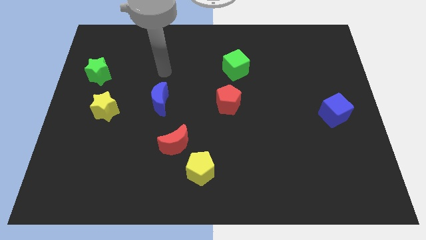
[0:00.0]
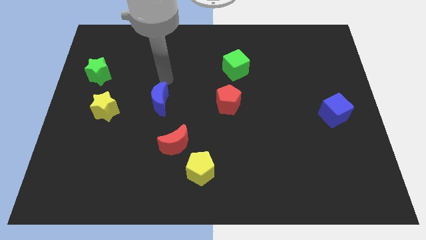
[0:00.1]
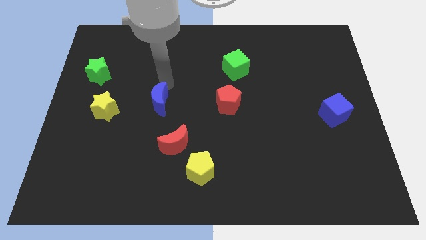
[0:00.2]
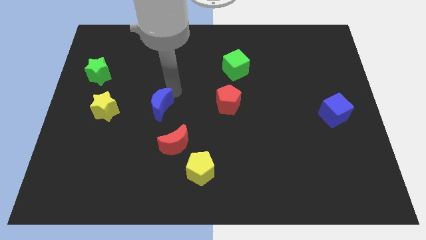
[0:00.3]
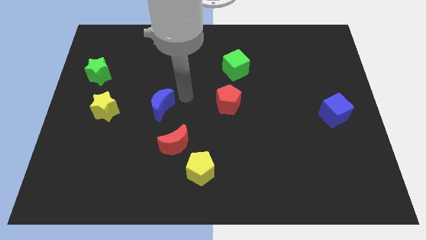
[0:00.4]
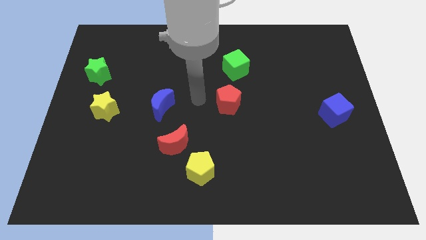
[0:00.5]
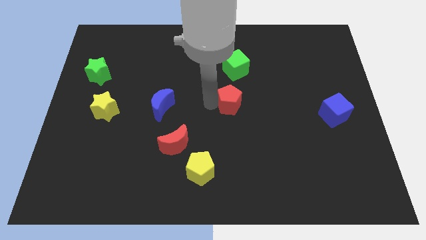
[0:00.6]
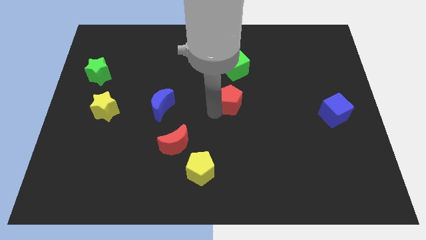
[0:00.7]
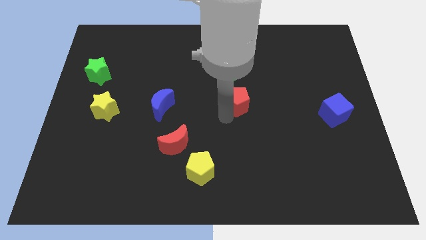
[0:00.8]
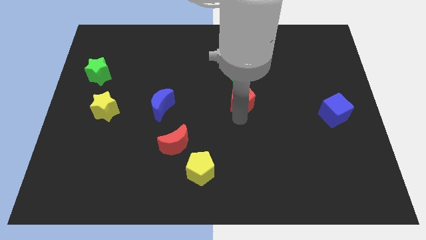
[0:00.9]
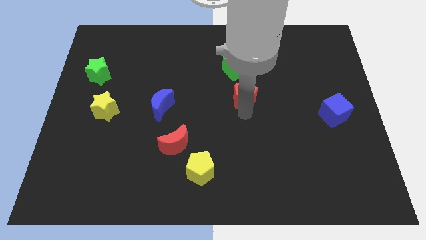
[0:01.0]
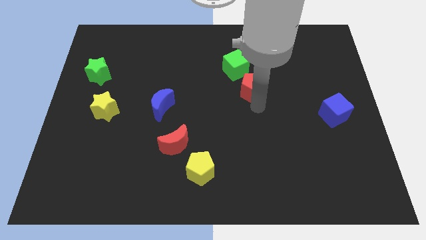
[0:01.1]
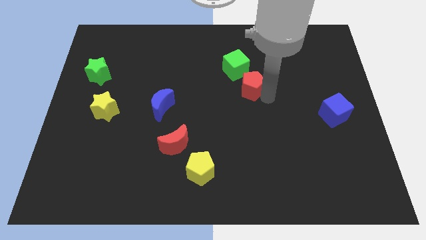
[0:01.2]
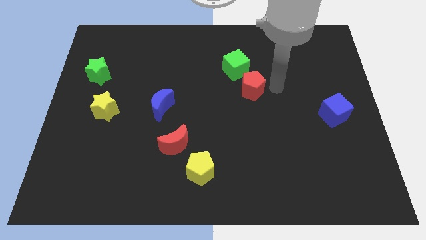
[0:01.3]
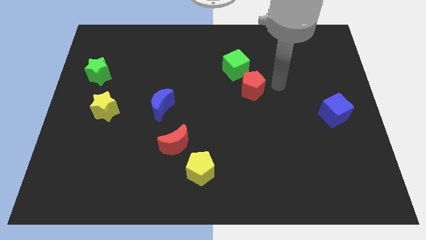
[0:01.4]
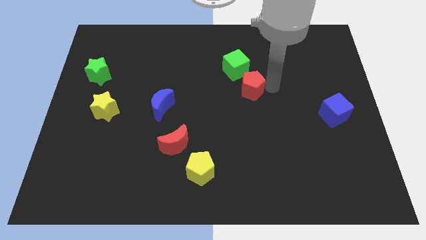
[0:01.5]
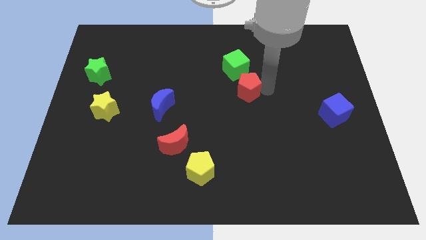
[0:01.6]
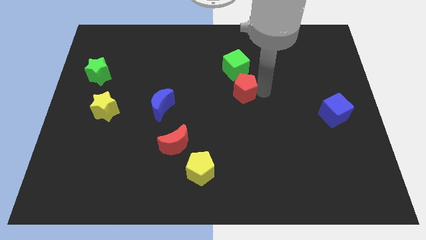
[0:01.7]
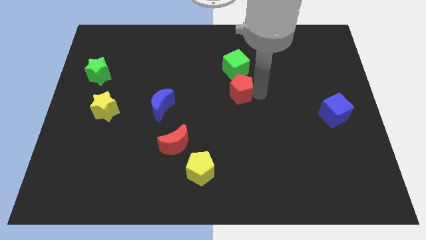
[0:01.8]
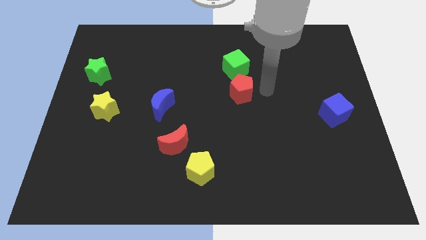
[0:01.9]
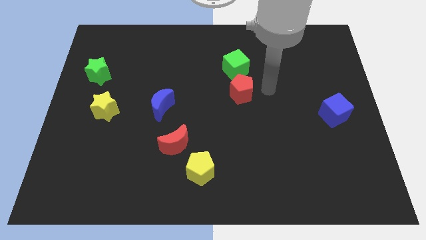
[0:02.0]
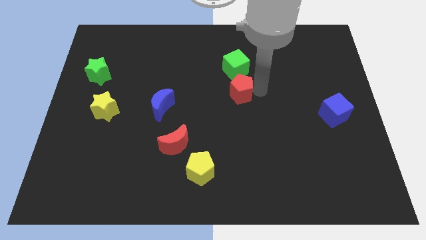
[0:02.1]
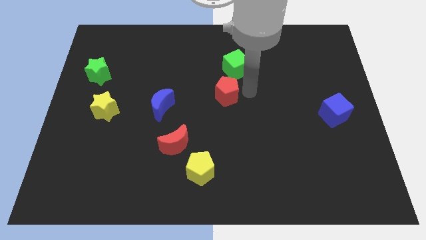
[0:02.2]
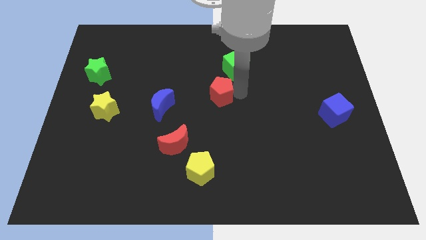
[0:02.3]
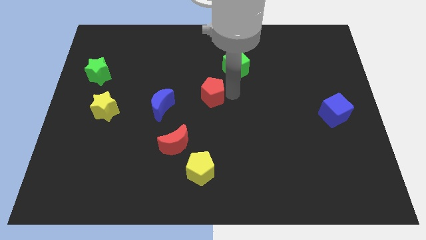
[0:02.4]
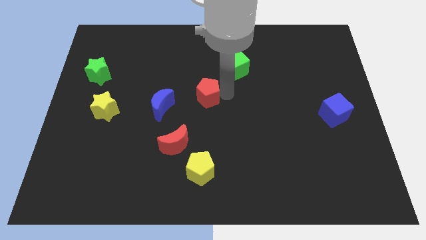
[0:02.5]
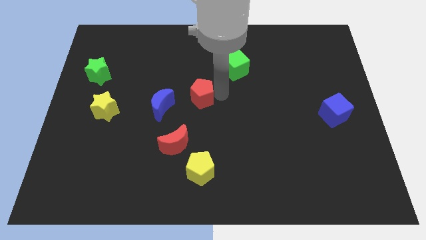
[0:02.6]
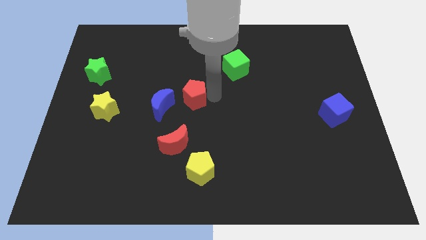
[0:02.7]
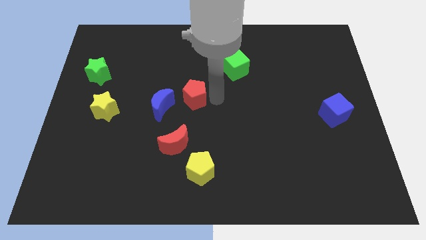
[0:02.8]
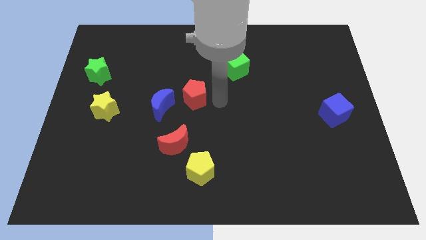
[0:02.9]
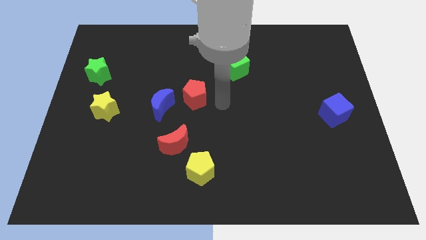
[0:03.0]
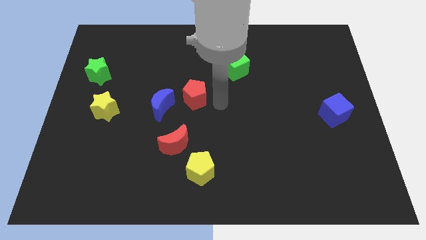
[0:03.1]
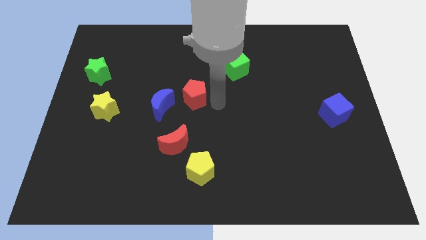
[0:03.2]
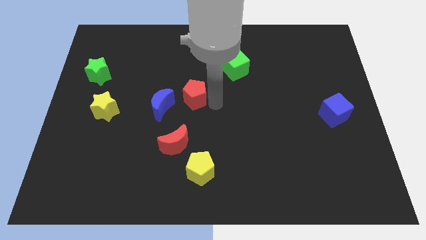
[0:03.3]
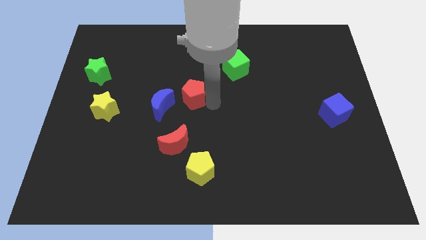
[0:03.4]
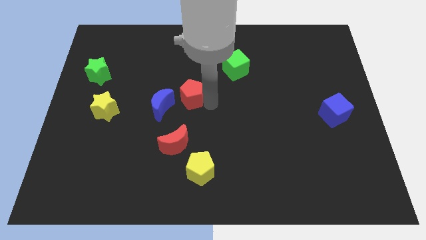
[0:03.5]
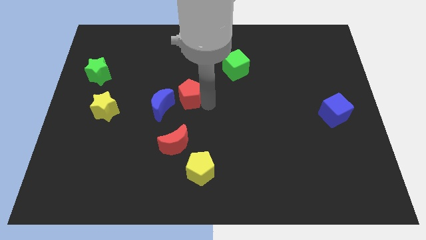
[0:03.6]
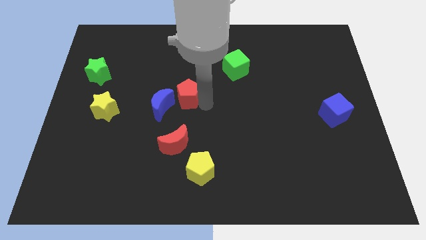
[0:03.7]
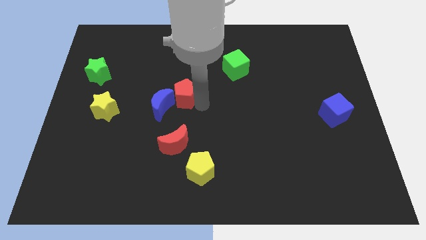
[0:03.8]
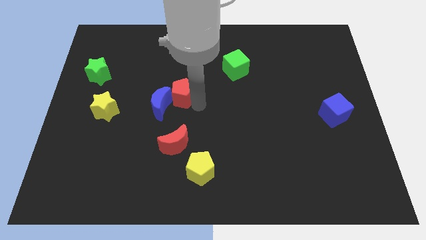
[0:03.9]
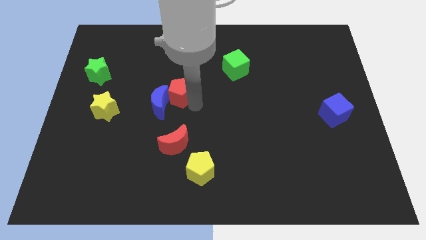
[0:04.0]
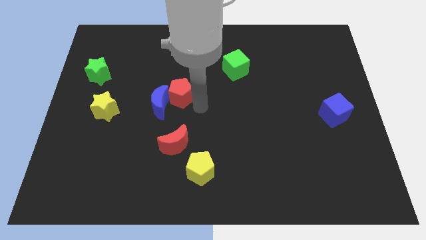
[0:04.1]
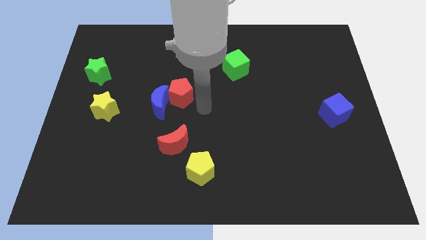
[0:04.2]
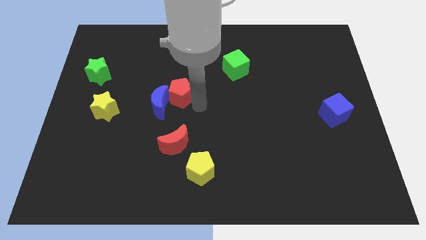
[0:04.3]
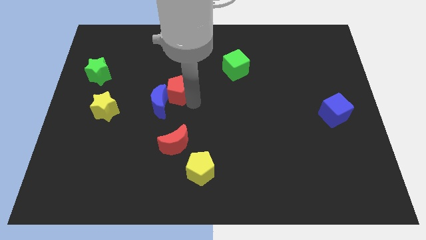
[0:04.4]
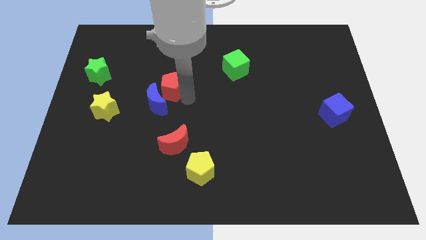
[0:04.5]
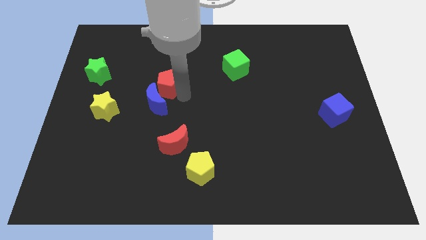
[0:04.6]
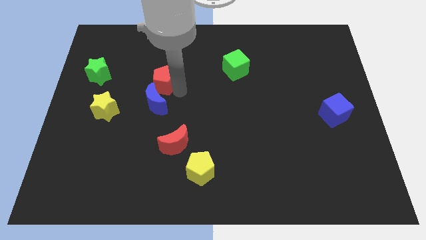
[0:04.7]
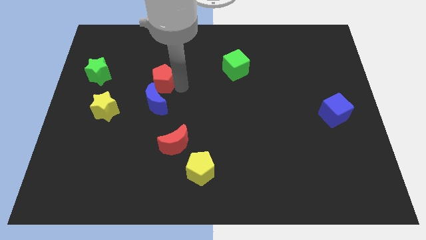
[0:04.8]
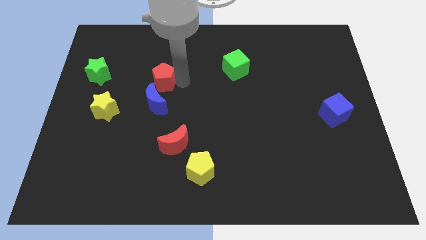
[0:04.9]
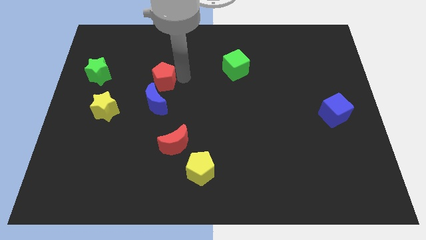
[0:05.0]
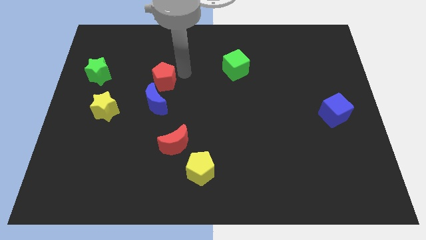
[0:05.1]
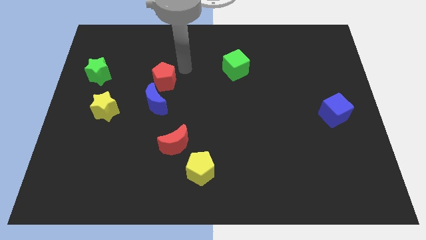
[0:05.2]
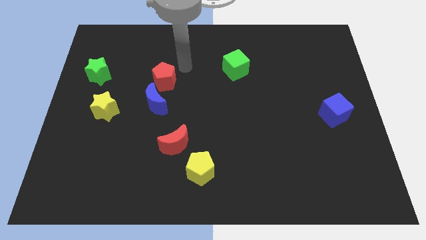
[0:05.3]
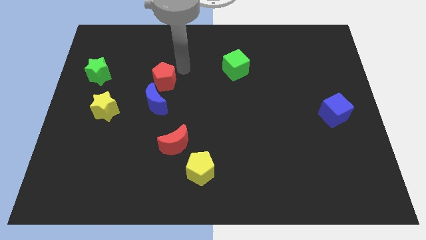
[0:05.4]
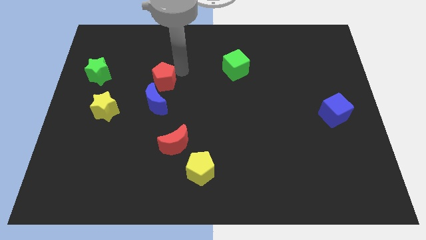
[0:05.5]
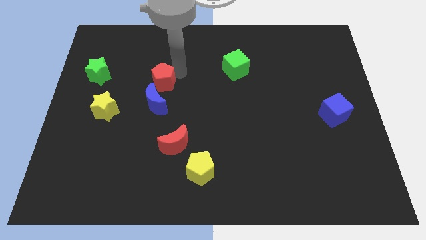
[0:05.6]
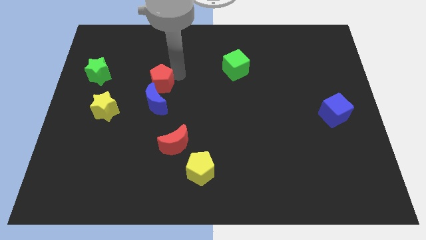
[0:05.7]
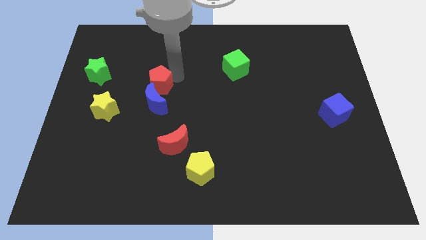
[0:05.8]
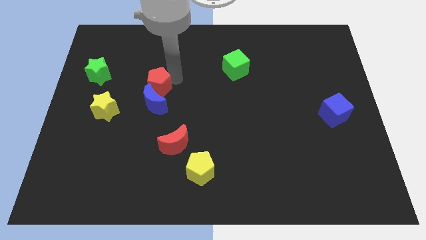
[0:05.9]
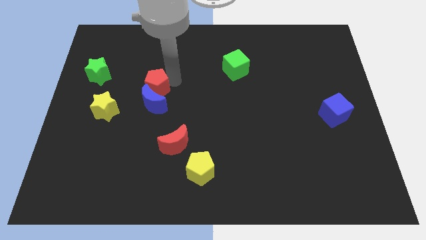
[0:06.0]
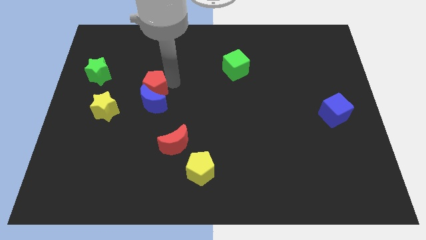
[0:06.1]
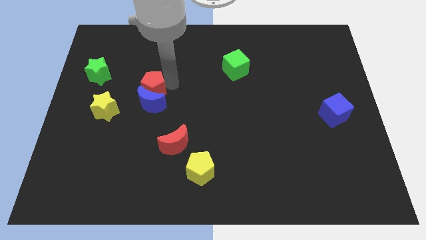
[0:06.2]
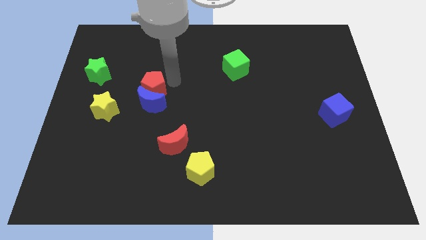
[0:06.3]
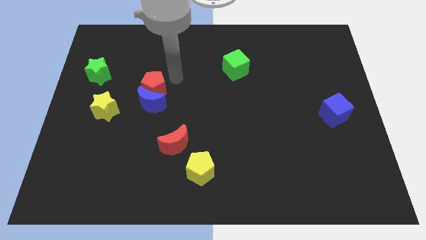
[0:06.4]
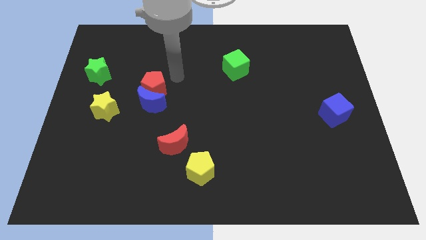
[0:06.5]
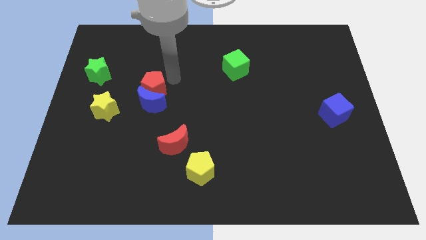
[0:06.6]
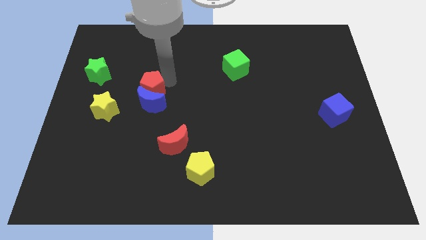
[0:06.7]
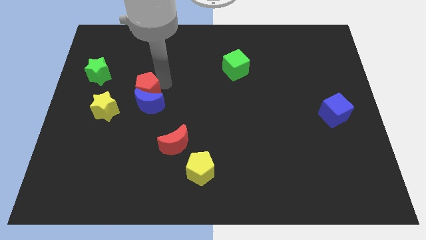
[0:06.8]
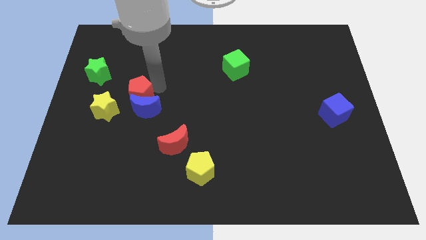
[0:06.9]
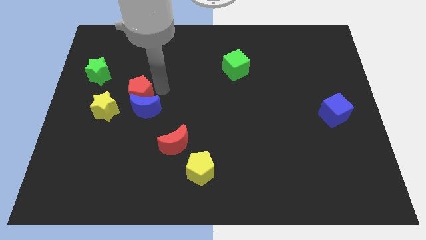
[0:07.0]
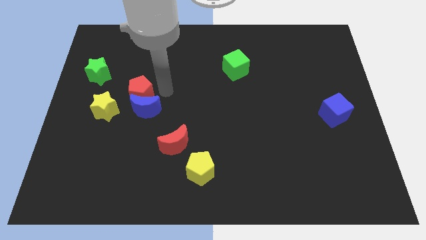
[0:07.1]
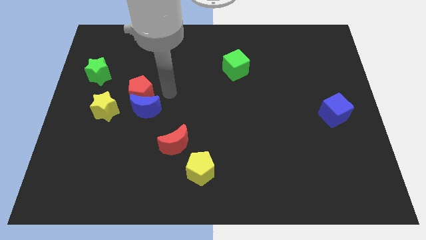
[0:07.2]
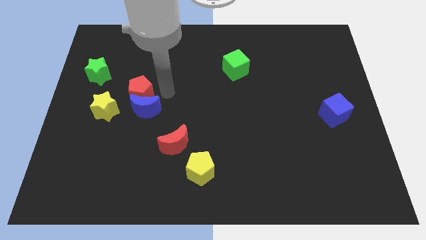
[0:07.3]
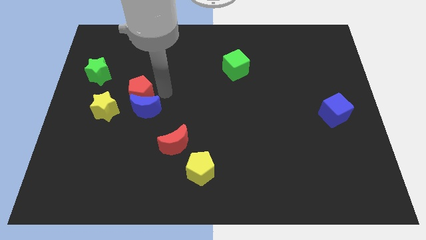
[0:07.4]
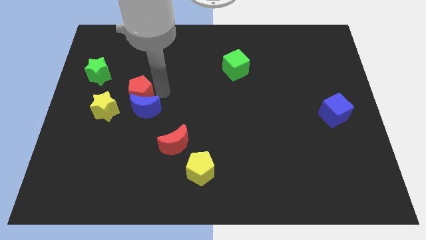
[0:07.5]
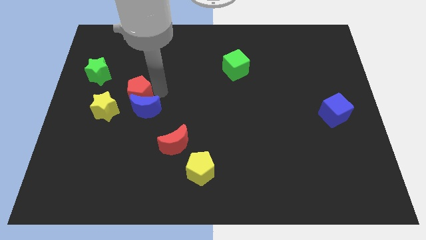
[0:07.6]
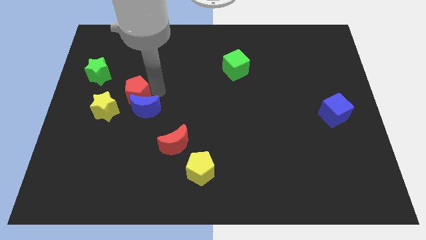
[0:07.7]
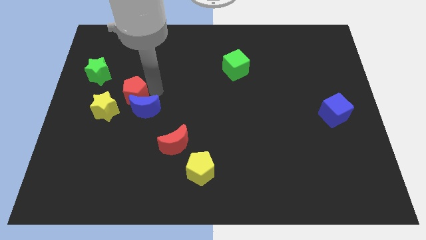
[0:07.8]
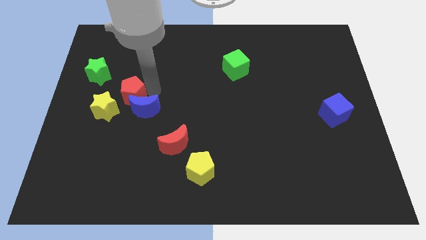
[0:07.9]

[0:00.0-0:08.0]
push the red pentagon to the left side of the blue moon

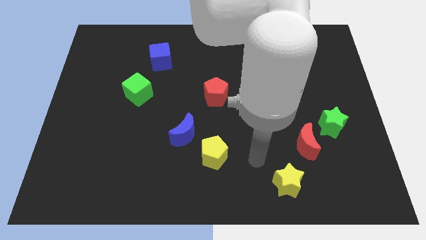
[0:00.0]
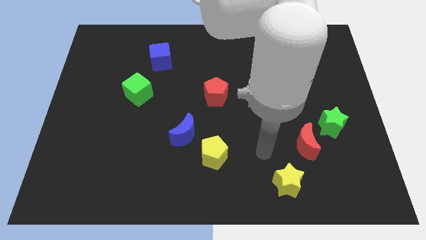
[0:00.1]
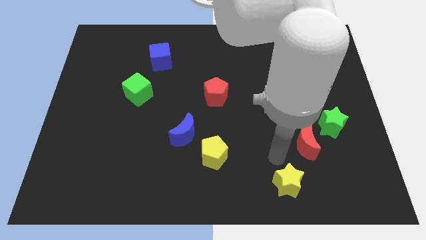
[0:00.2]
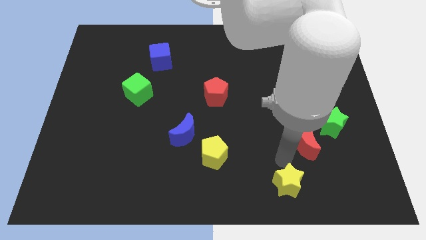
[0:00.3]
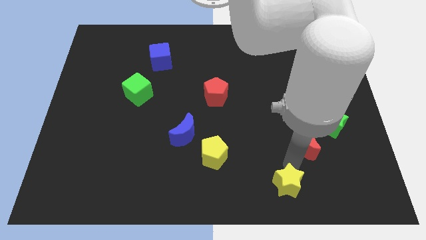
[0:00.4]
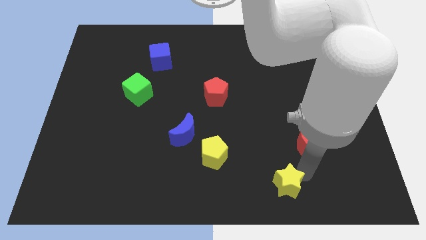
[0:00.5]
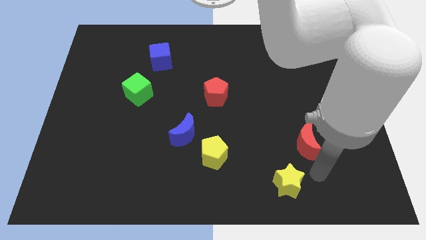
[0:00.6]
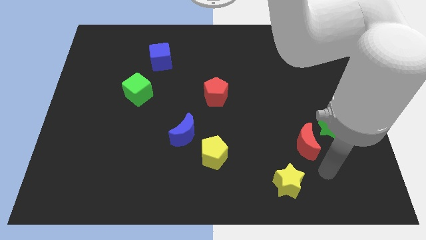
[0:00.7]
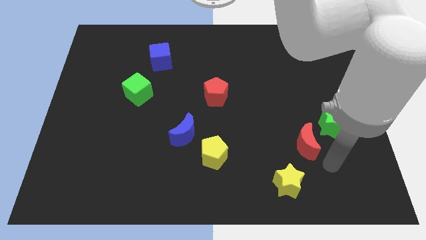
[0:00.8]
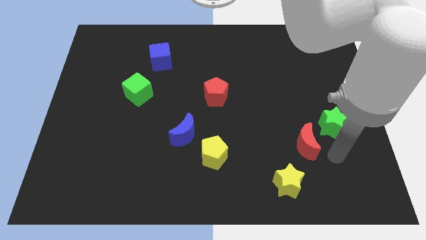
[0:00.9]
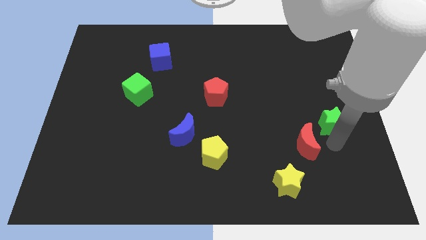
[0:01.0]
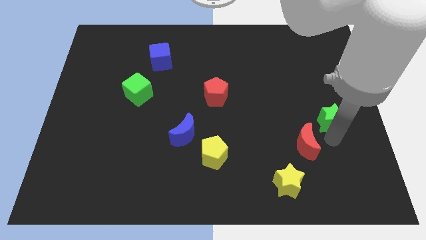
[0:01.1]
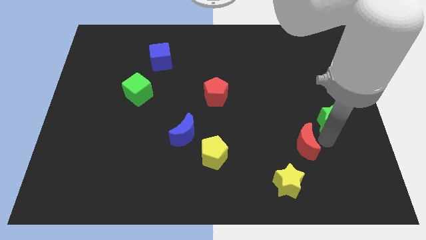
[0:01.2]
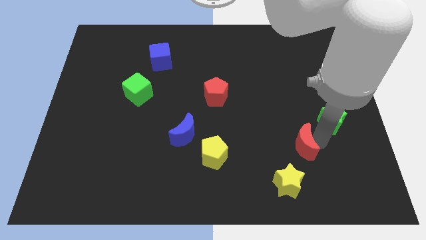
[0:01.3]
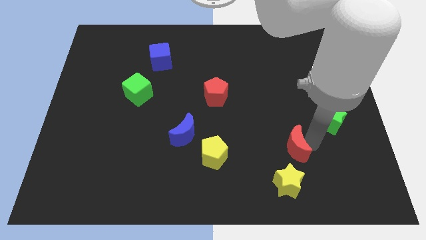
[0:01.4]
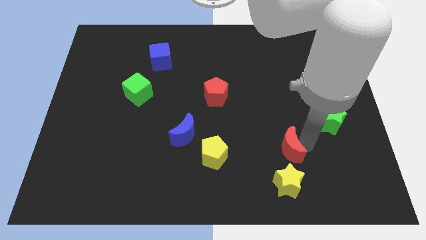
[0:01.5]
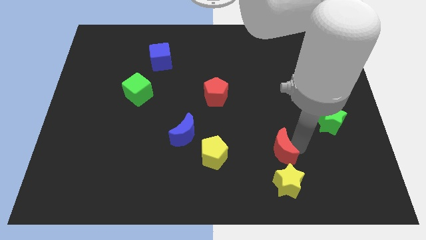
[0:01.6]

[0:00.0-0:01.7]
slide the red moon to the right of the yellow pentagon
